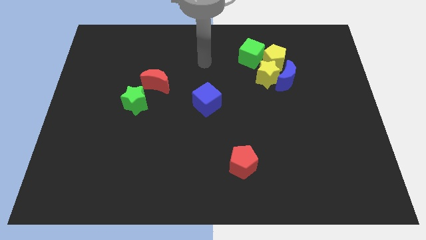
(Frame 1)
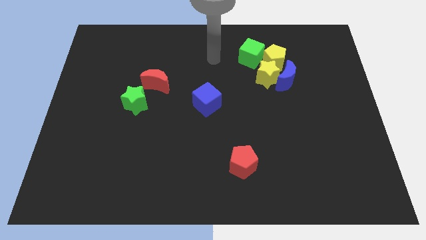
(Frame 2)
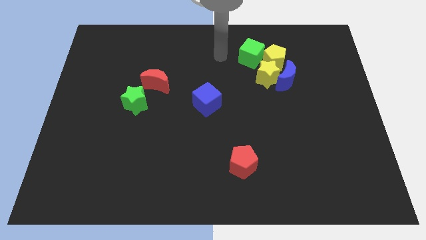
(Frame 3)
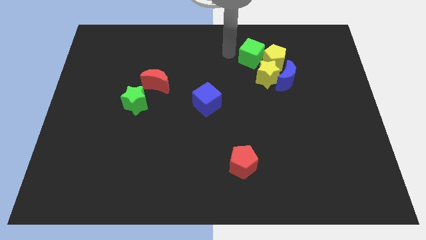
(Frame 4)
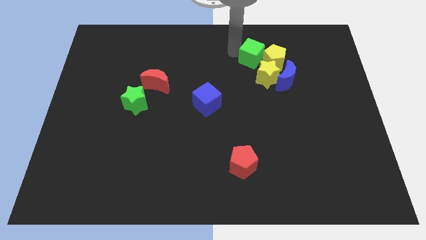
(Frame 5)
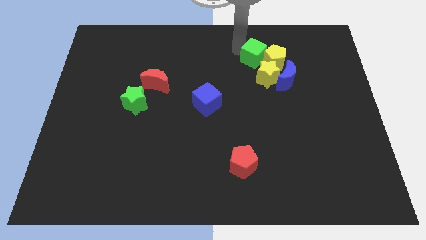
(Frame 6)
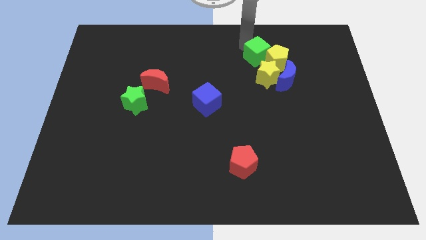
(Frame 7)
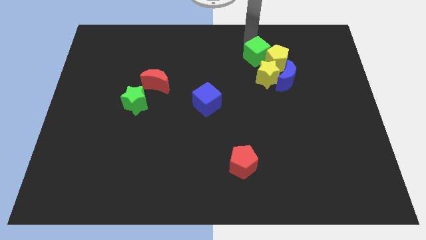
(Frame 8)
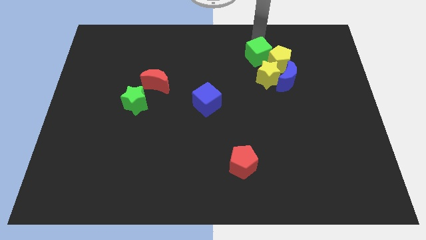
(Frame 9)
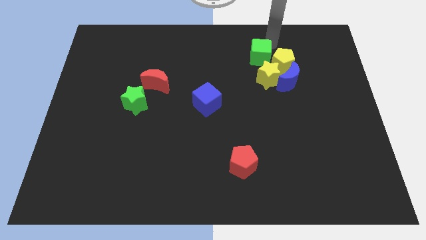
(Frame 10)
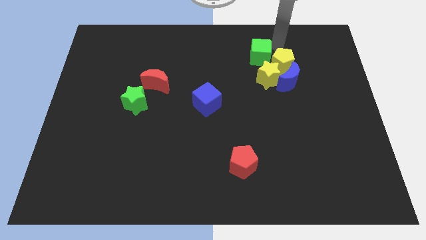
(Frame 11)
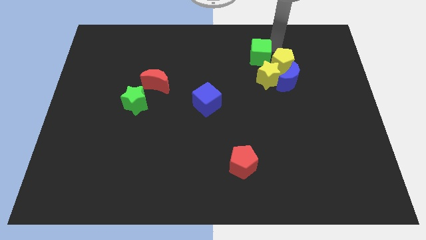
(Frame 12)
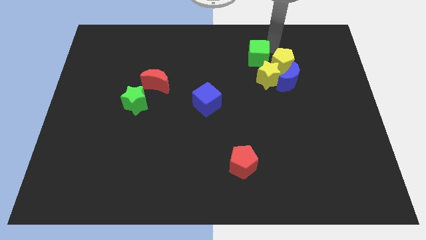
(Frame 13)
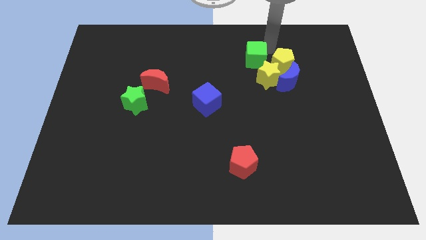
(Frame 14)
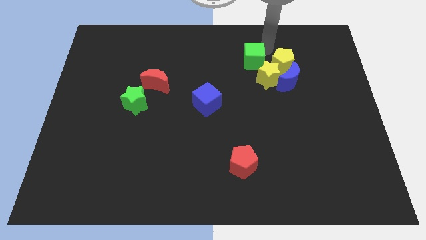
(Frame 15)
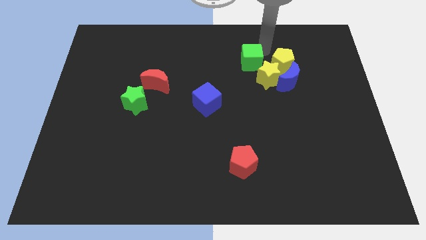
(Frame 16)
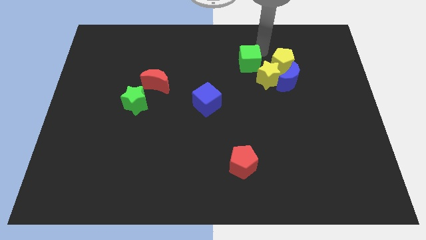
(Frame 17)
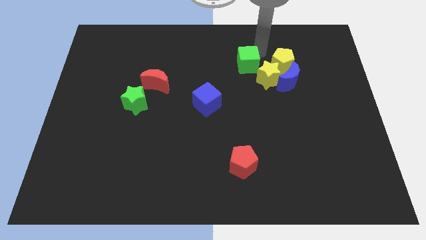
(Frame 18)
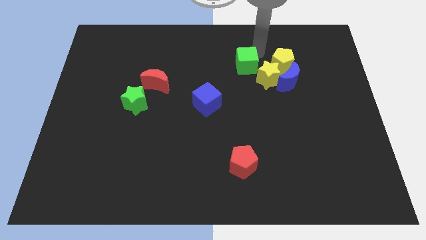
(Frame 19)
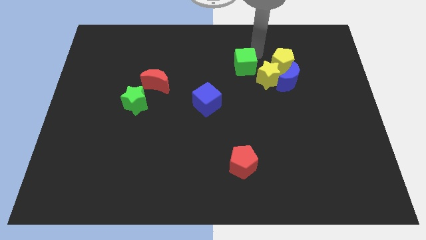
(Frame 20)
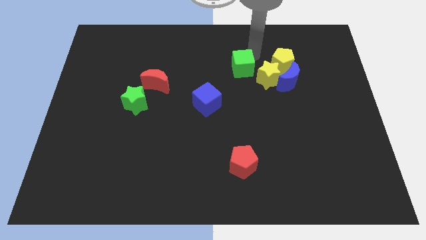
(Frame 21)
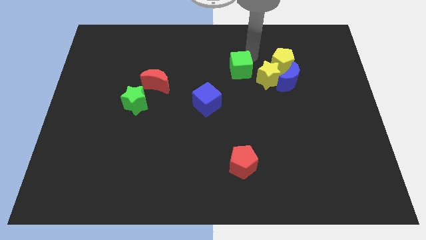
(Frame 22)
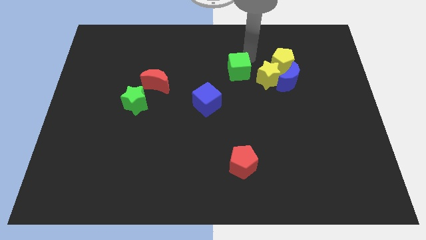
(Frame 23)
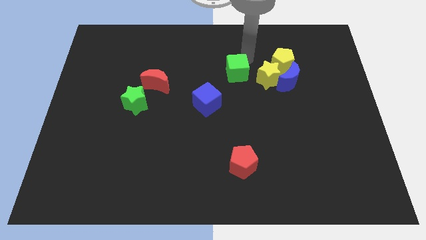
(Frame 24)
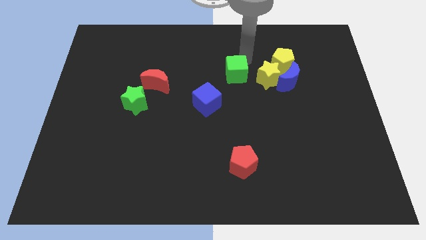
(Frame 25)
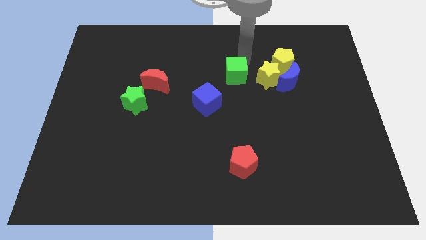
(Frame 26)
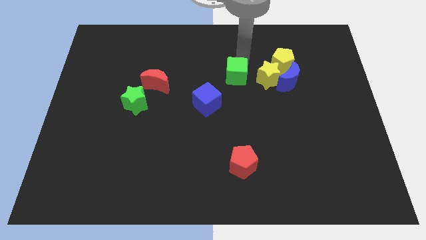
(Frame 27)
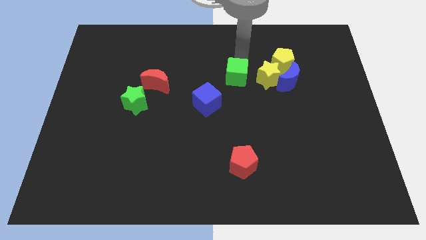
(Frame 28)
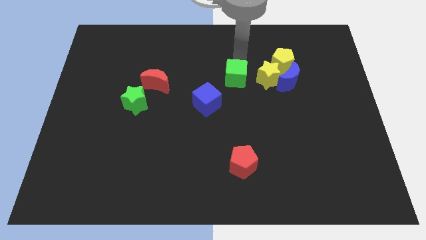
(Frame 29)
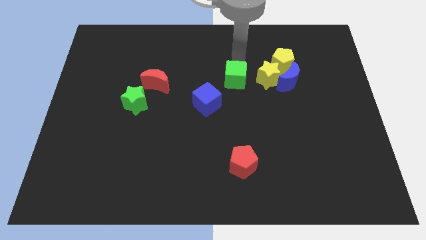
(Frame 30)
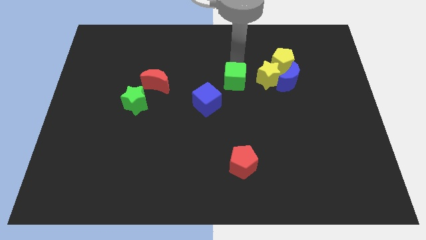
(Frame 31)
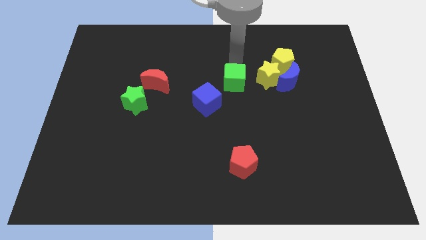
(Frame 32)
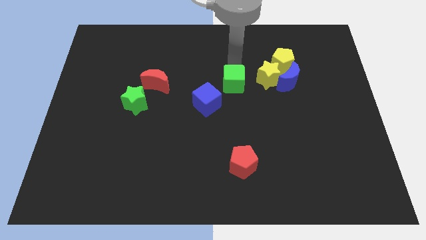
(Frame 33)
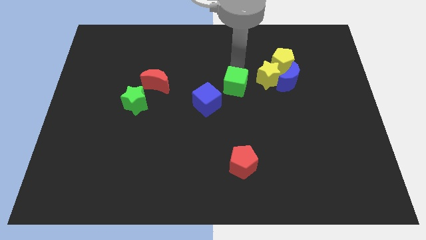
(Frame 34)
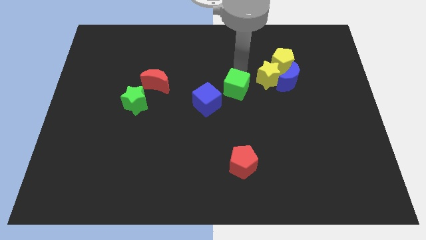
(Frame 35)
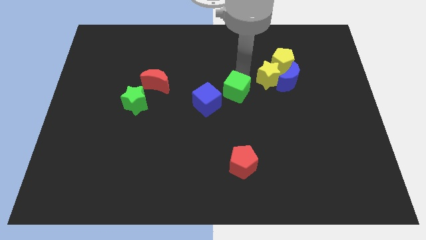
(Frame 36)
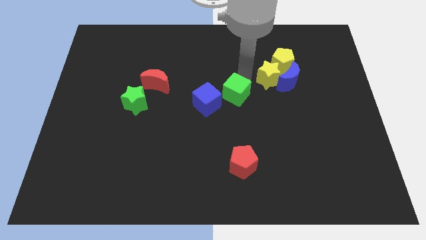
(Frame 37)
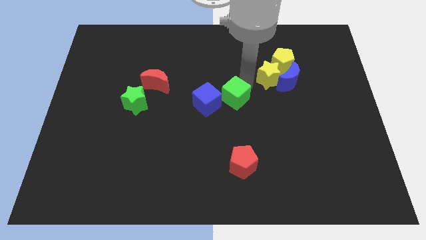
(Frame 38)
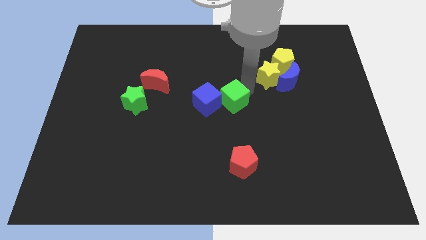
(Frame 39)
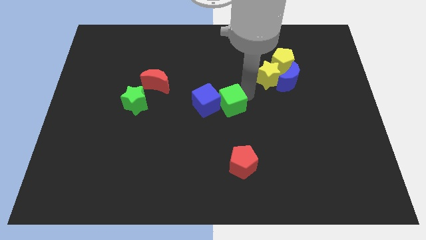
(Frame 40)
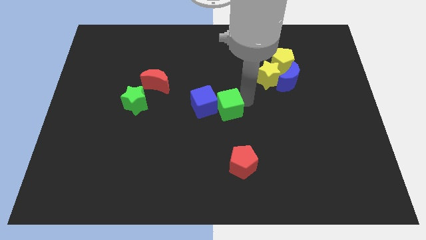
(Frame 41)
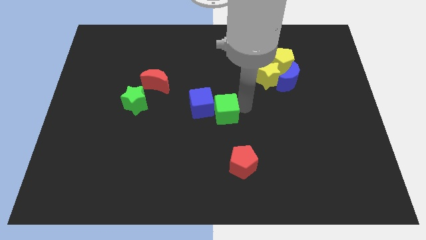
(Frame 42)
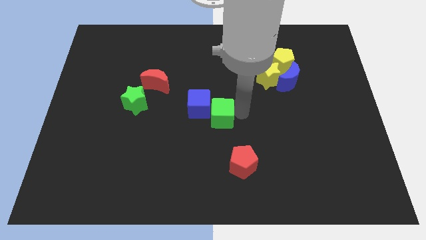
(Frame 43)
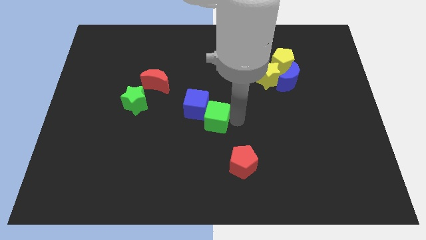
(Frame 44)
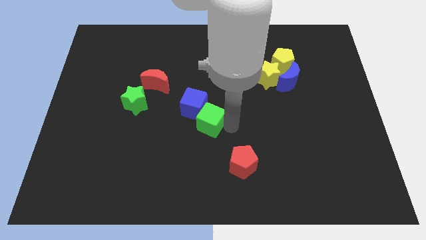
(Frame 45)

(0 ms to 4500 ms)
push the green cube downwards and then to the left

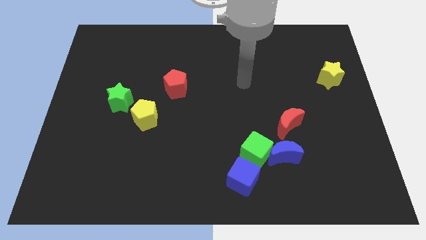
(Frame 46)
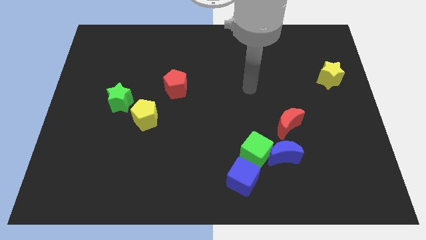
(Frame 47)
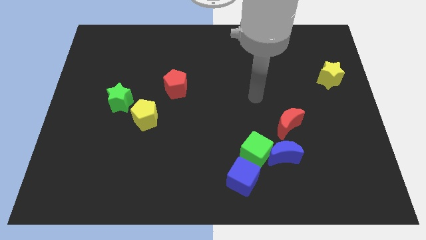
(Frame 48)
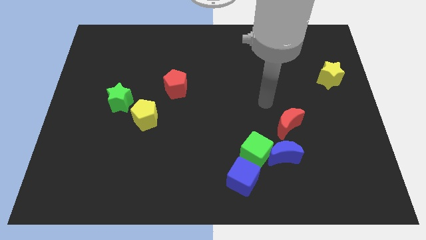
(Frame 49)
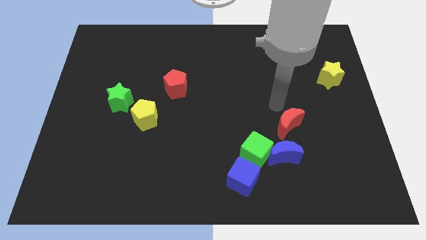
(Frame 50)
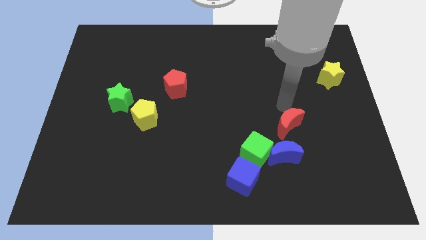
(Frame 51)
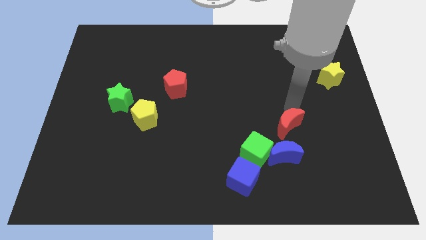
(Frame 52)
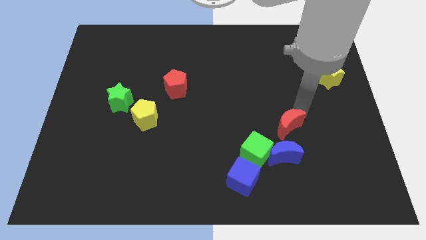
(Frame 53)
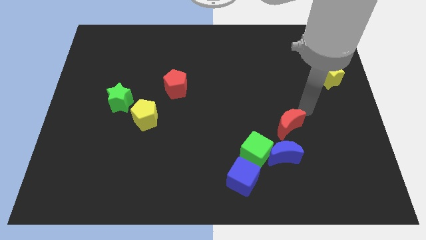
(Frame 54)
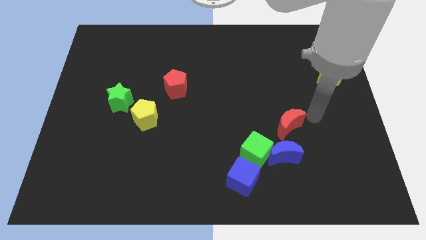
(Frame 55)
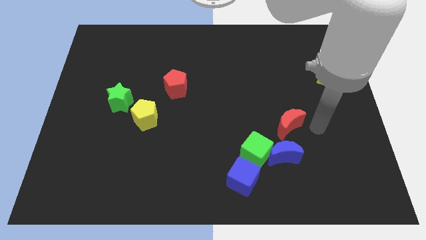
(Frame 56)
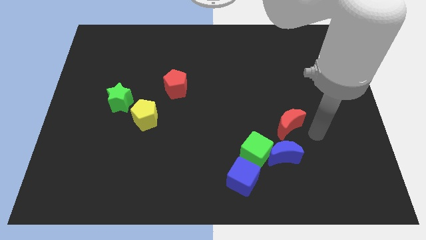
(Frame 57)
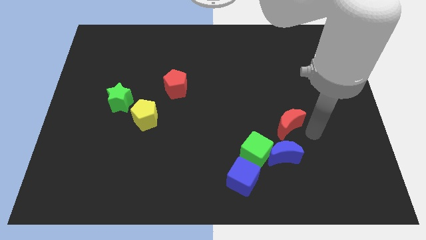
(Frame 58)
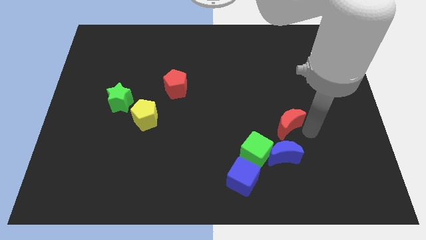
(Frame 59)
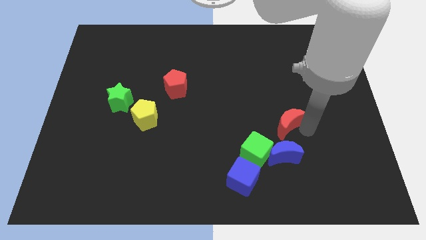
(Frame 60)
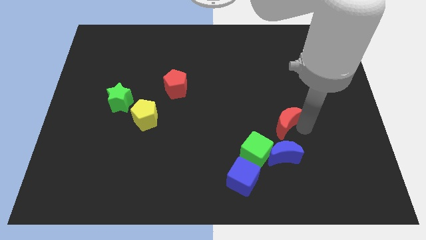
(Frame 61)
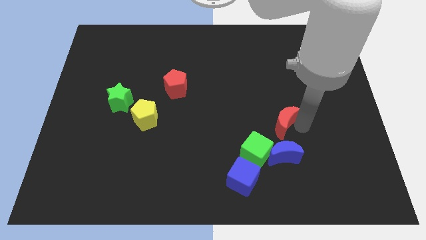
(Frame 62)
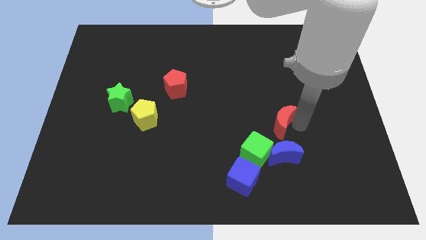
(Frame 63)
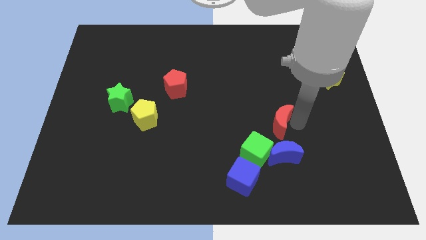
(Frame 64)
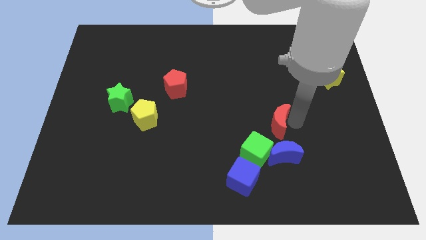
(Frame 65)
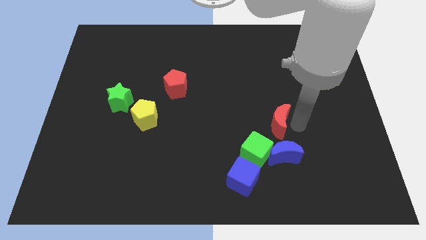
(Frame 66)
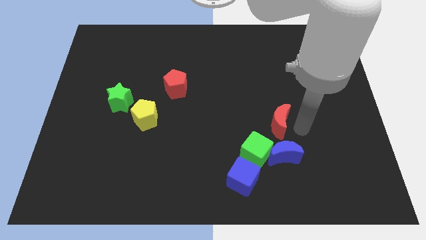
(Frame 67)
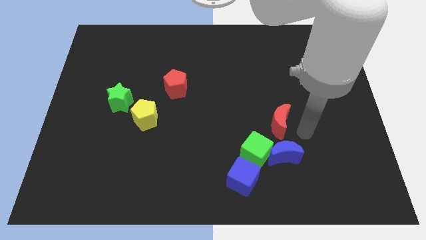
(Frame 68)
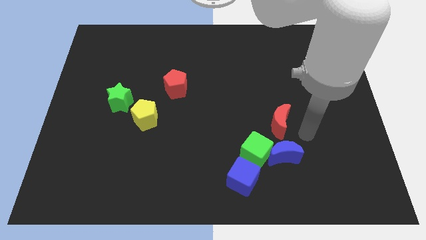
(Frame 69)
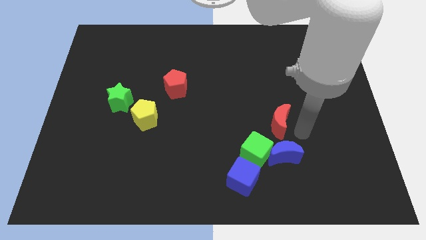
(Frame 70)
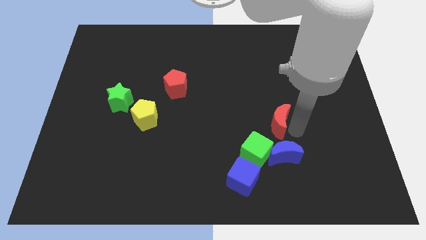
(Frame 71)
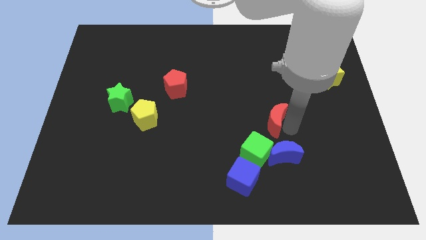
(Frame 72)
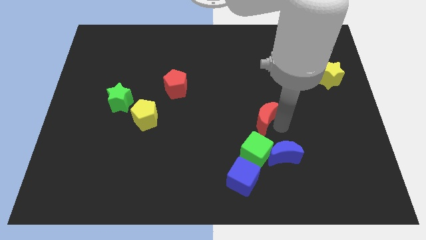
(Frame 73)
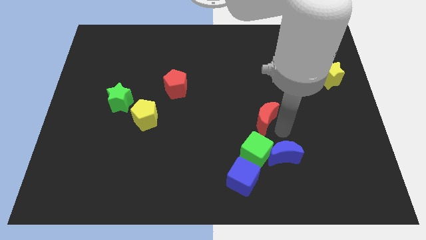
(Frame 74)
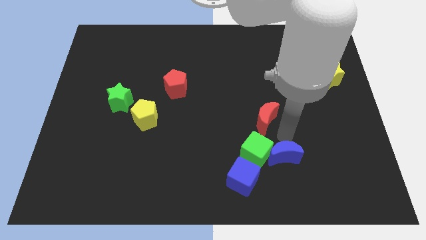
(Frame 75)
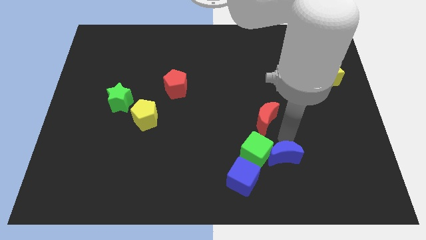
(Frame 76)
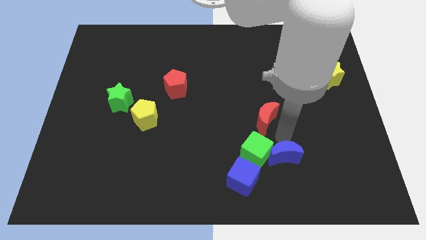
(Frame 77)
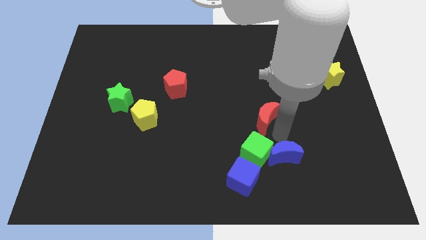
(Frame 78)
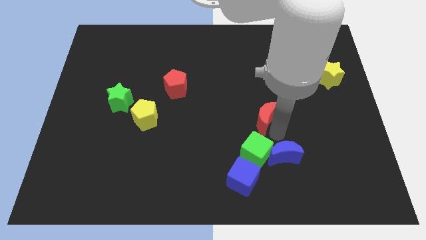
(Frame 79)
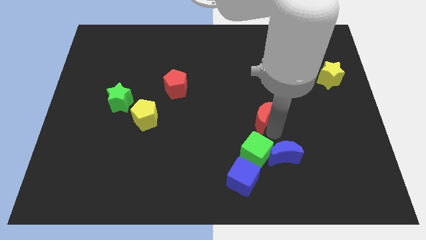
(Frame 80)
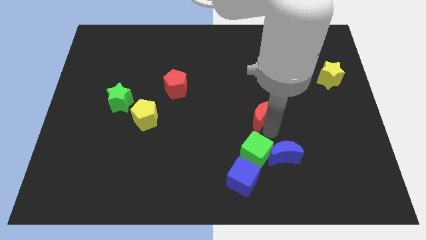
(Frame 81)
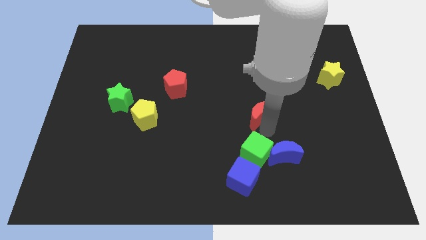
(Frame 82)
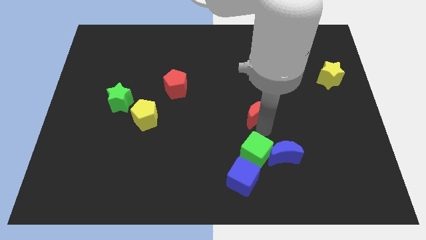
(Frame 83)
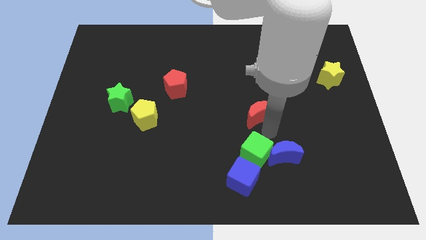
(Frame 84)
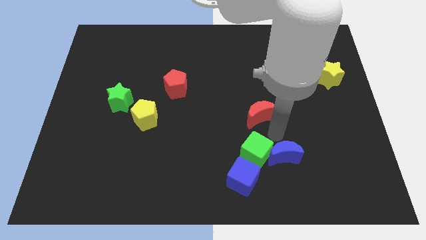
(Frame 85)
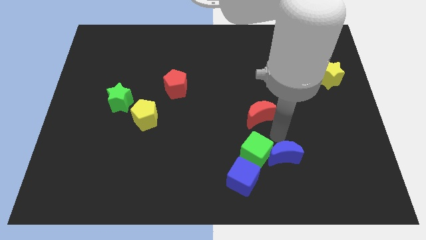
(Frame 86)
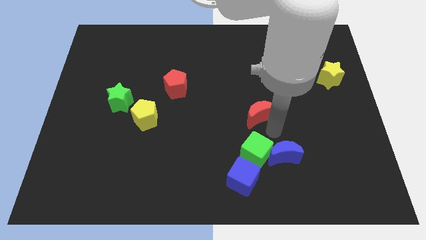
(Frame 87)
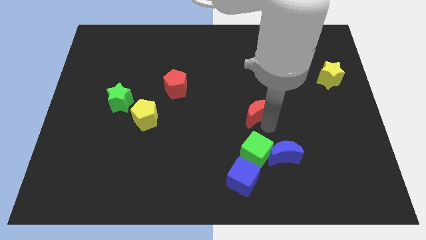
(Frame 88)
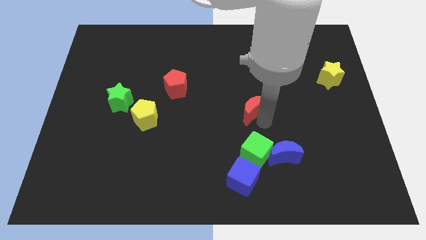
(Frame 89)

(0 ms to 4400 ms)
slightly move the red moon upwards and left diagonally
